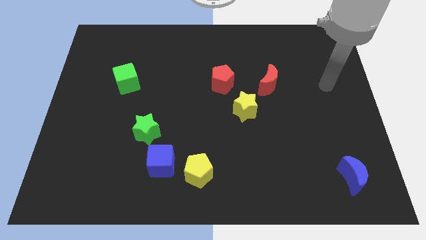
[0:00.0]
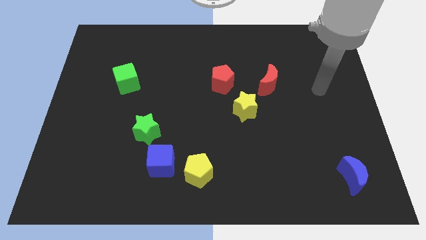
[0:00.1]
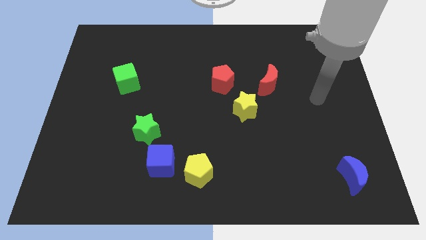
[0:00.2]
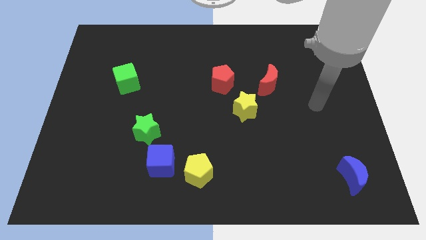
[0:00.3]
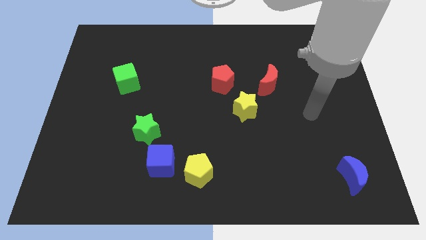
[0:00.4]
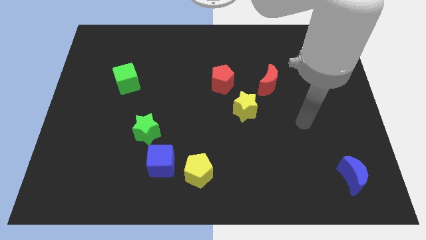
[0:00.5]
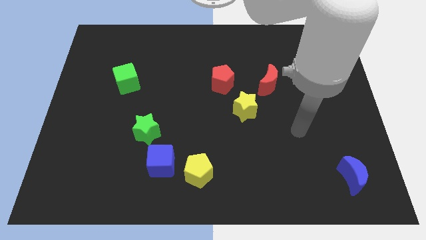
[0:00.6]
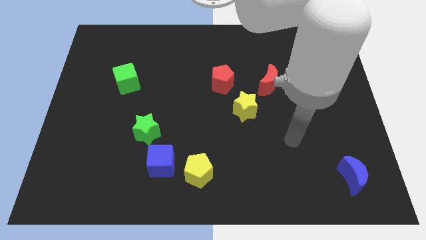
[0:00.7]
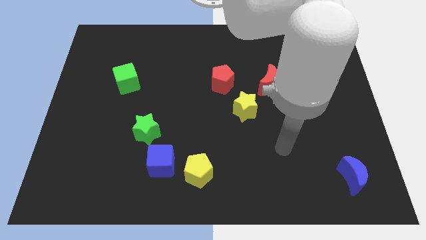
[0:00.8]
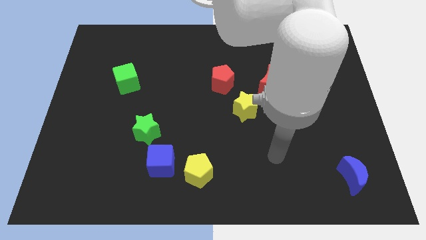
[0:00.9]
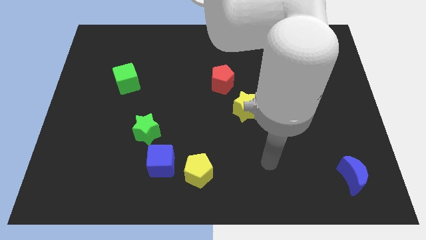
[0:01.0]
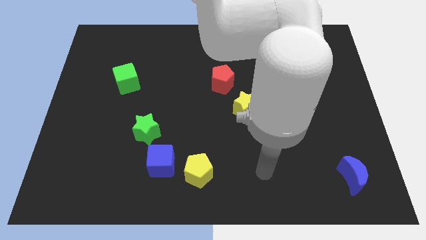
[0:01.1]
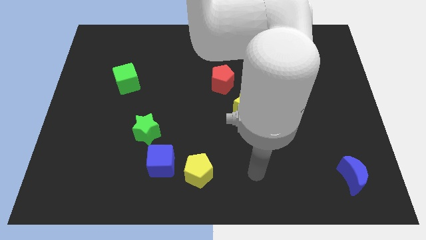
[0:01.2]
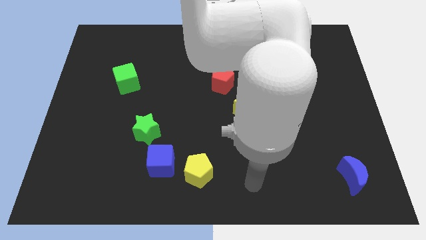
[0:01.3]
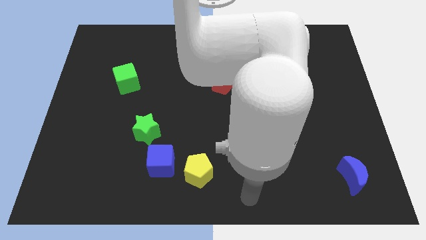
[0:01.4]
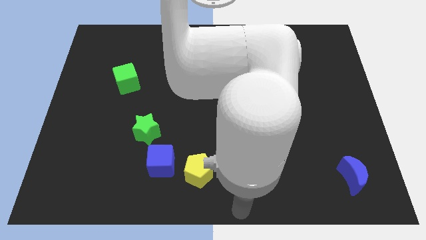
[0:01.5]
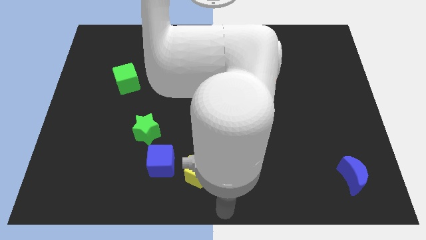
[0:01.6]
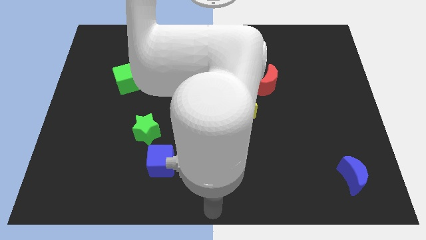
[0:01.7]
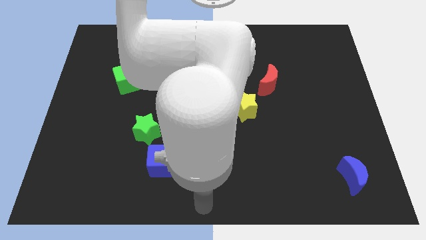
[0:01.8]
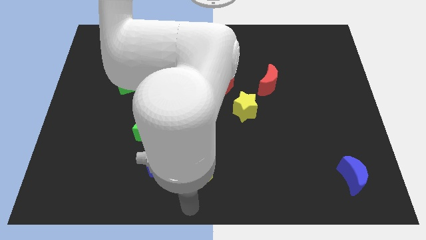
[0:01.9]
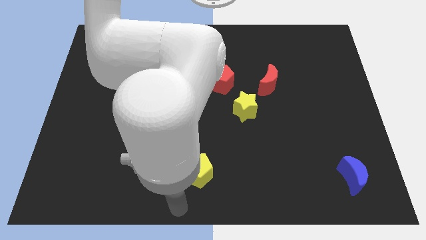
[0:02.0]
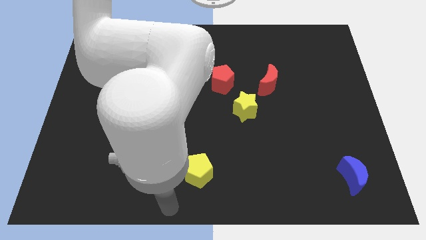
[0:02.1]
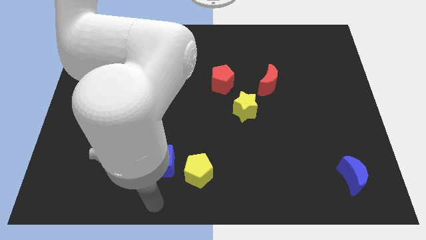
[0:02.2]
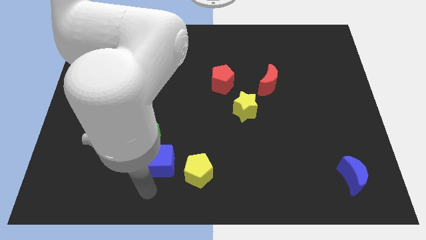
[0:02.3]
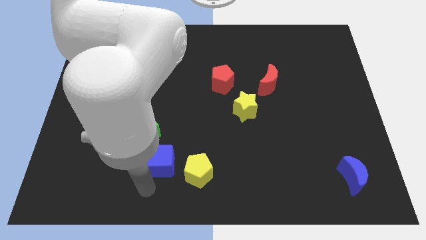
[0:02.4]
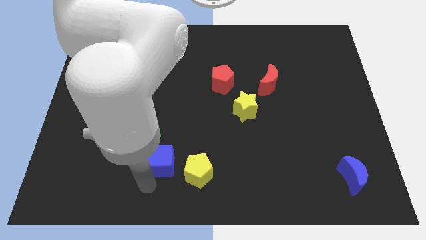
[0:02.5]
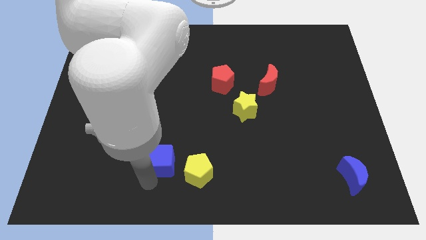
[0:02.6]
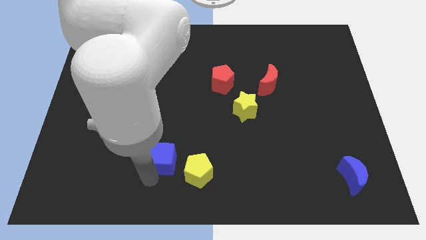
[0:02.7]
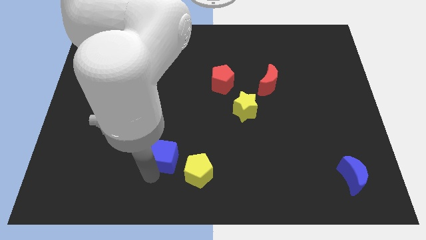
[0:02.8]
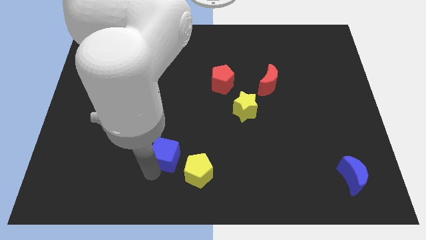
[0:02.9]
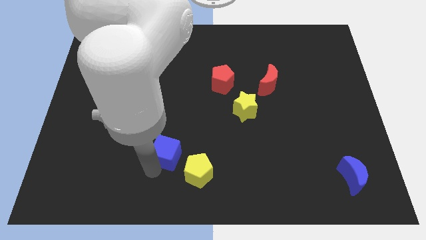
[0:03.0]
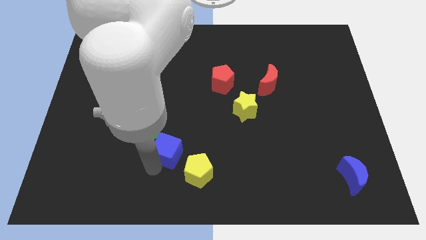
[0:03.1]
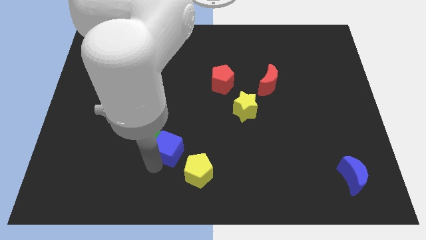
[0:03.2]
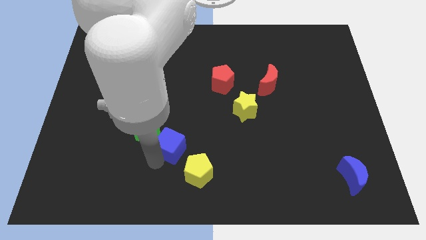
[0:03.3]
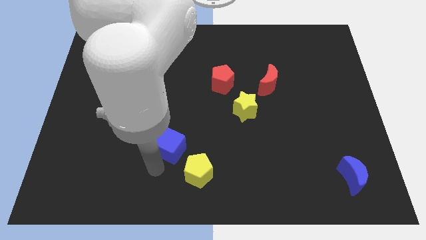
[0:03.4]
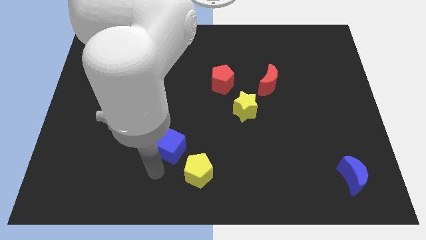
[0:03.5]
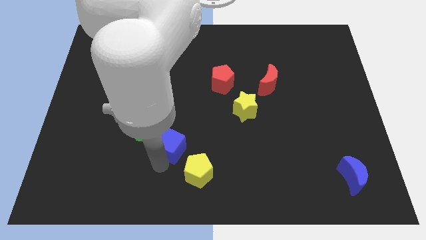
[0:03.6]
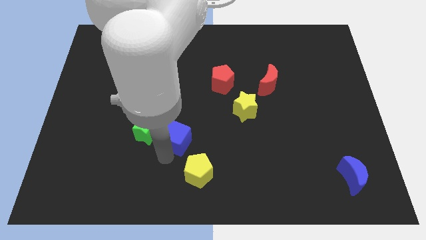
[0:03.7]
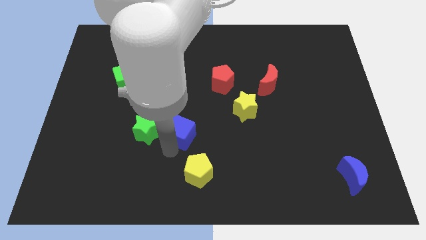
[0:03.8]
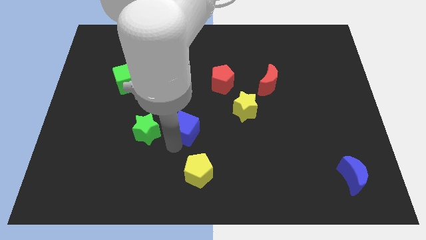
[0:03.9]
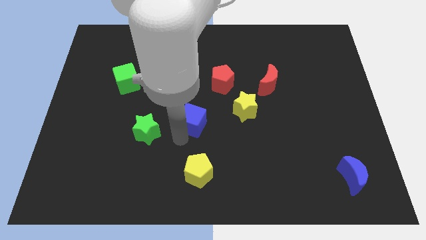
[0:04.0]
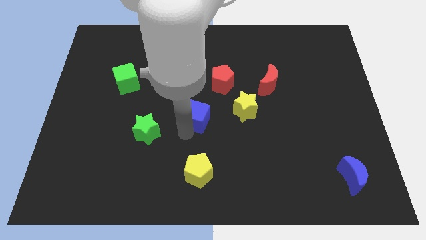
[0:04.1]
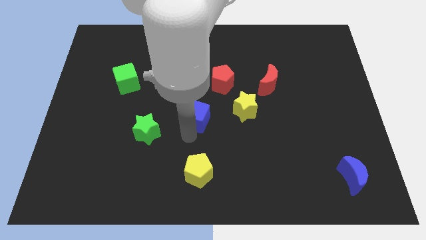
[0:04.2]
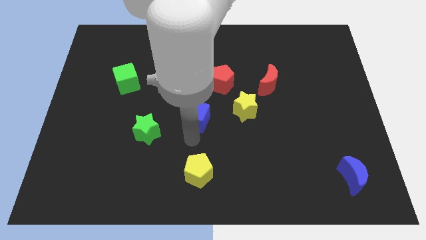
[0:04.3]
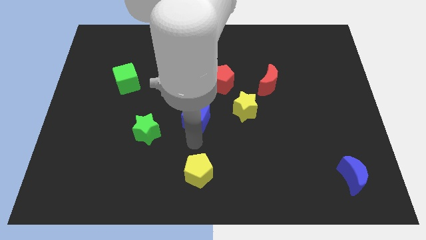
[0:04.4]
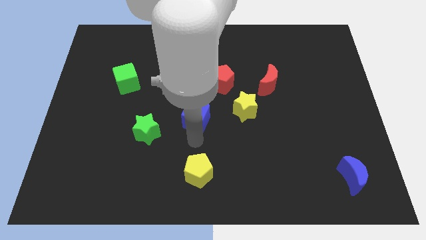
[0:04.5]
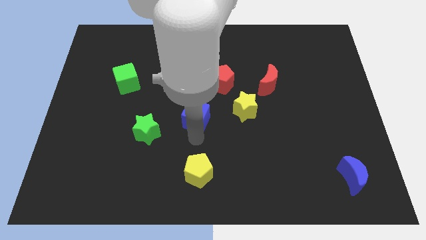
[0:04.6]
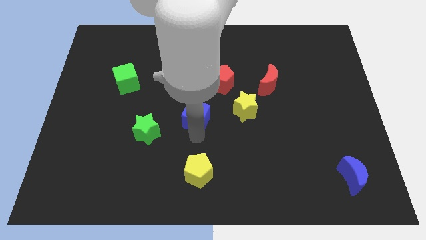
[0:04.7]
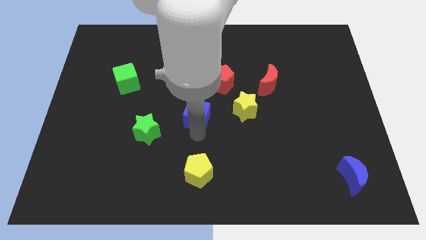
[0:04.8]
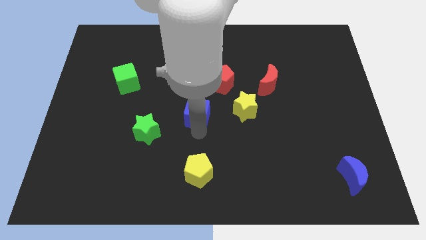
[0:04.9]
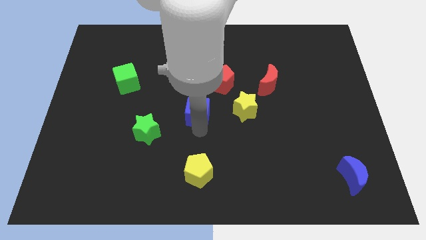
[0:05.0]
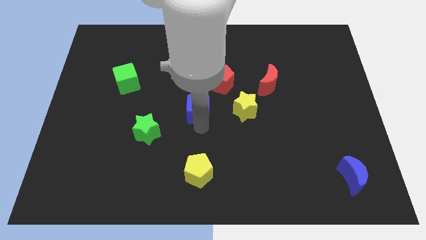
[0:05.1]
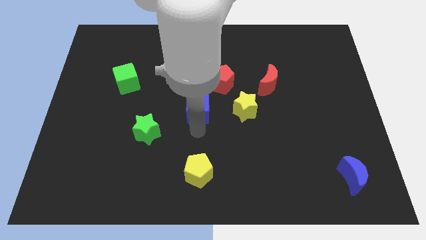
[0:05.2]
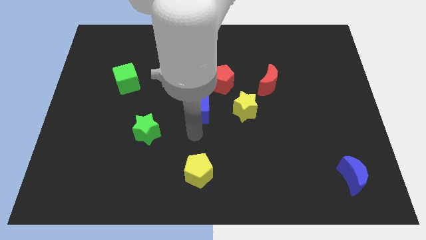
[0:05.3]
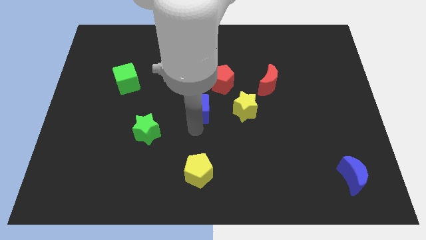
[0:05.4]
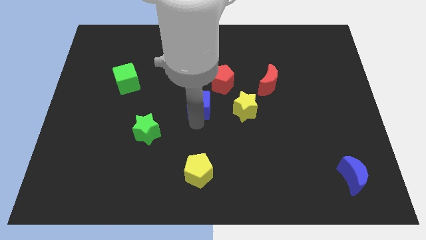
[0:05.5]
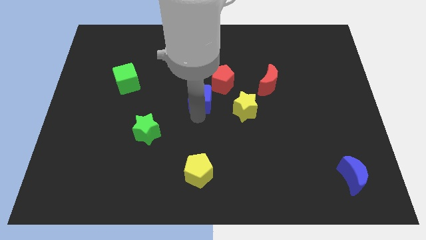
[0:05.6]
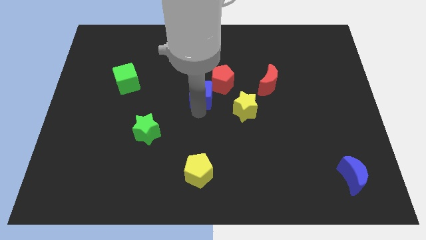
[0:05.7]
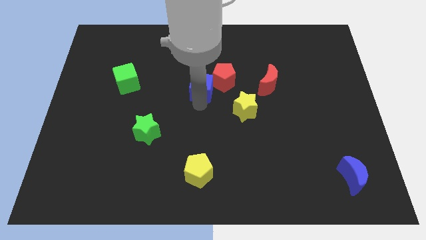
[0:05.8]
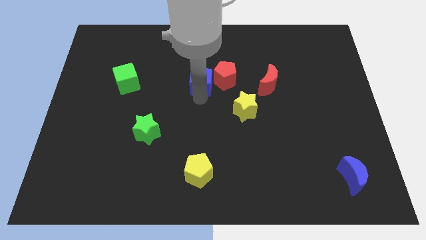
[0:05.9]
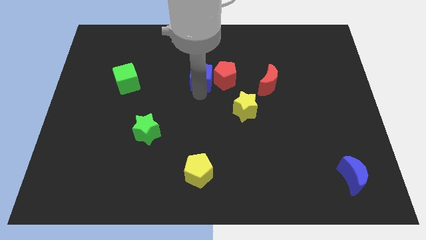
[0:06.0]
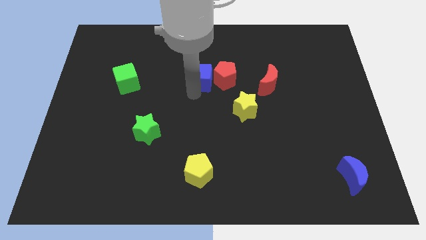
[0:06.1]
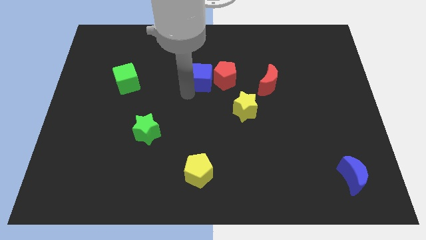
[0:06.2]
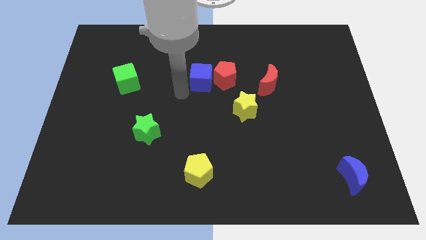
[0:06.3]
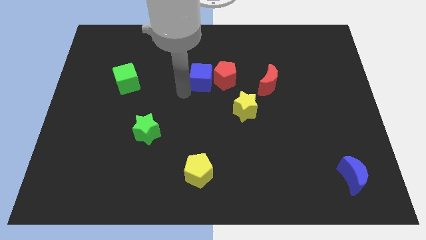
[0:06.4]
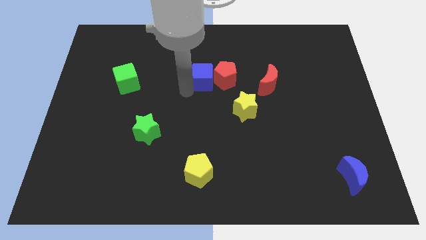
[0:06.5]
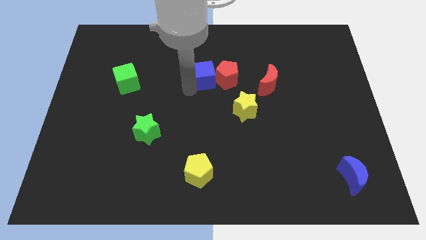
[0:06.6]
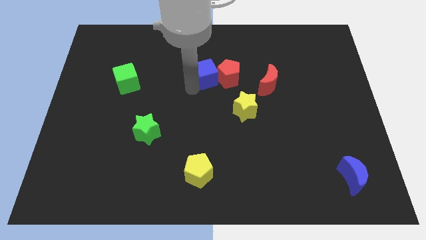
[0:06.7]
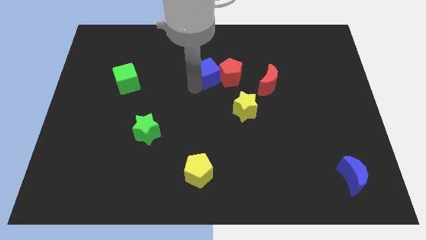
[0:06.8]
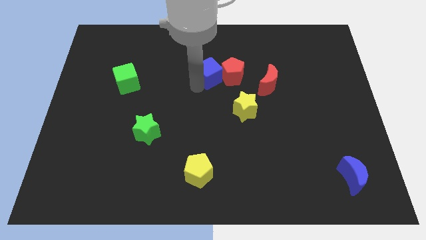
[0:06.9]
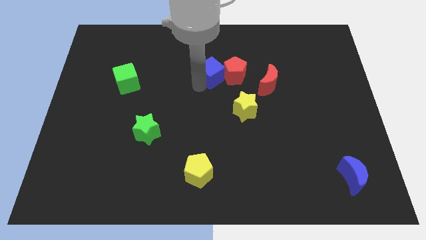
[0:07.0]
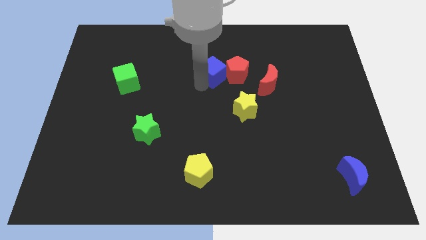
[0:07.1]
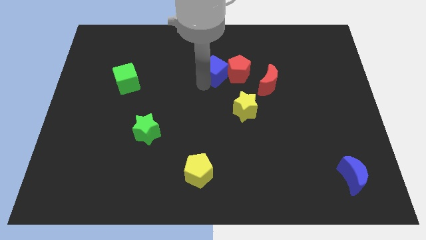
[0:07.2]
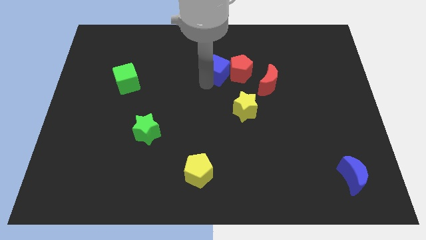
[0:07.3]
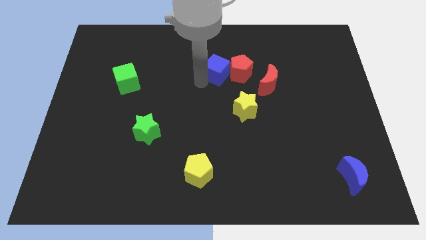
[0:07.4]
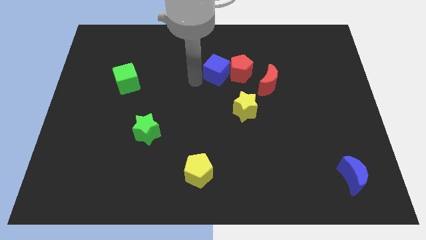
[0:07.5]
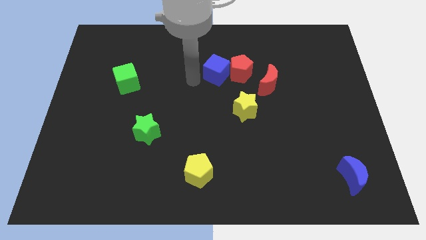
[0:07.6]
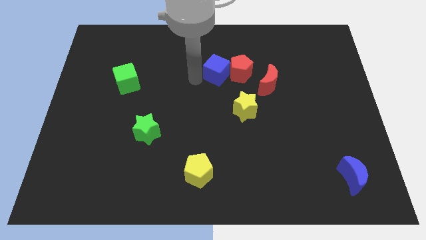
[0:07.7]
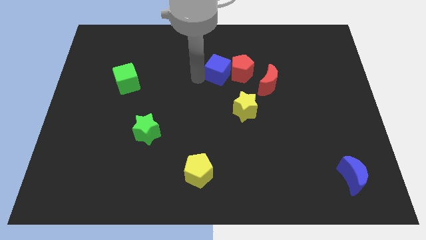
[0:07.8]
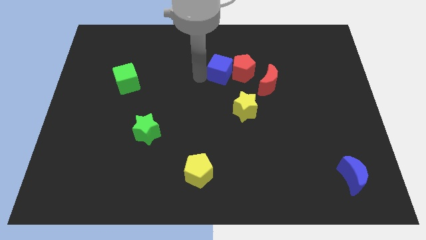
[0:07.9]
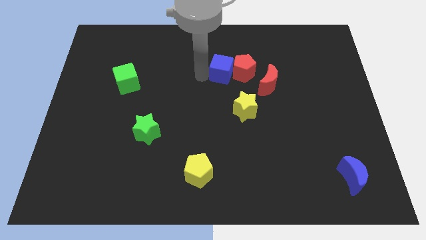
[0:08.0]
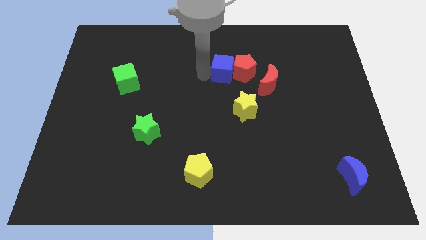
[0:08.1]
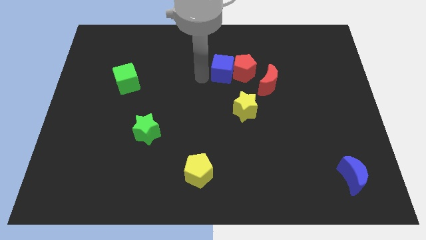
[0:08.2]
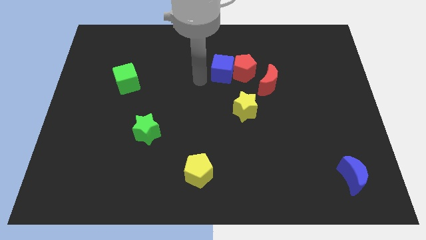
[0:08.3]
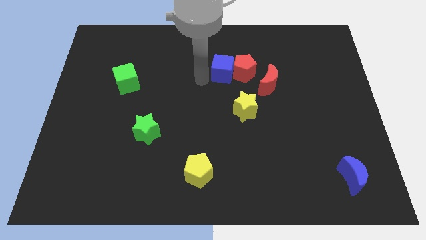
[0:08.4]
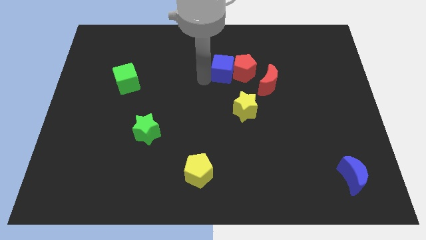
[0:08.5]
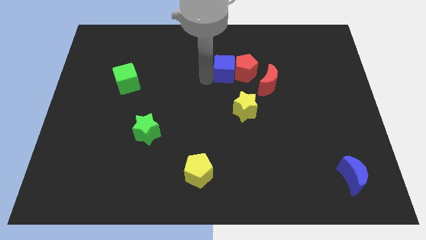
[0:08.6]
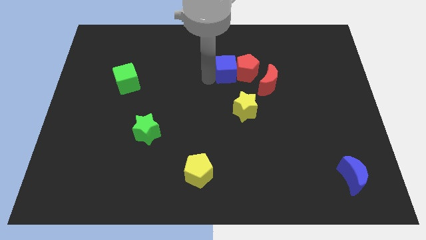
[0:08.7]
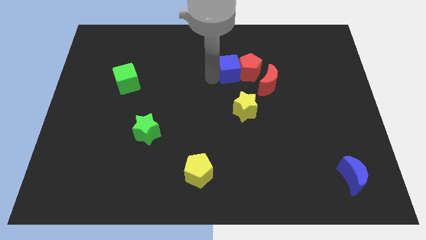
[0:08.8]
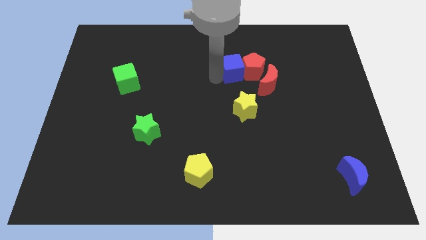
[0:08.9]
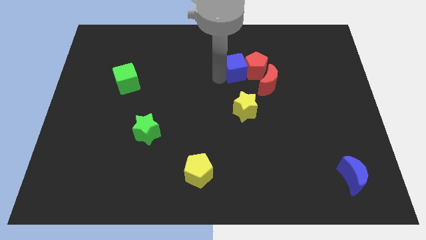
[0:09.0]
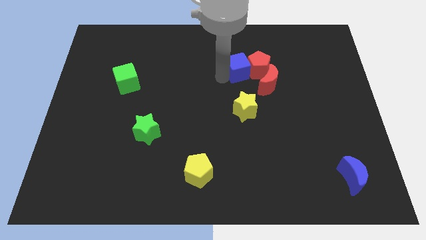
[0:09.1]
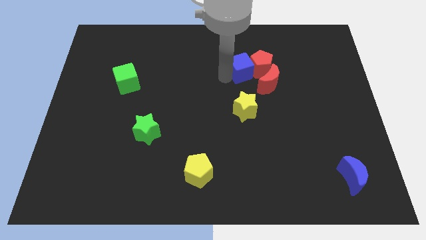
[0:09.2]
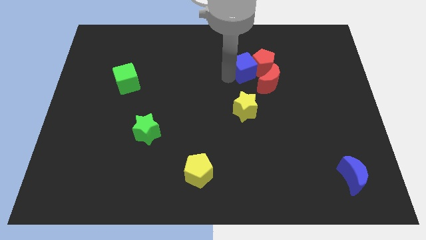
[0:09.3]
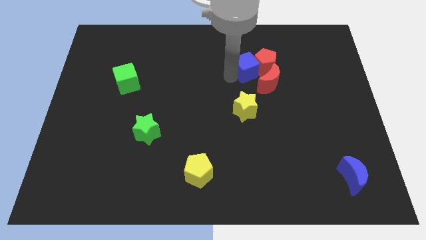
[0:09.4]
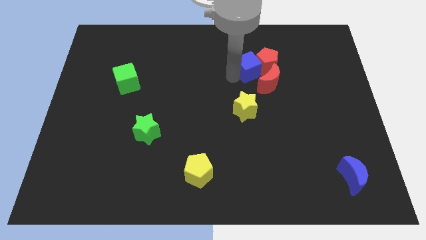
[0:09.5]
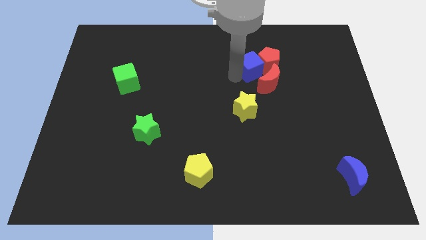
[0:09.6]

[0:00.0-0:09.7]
move the blue cube to the top of the red moon
